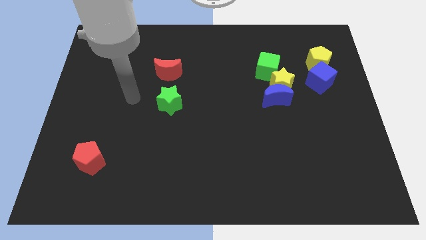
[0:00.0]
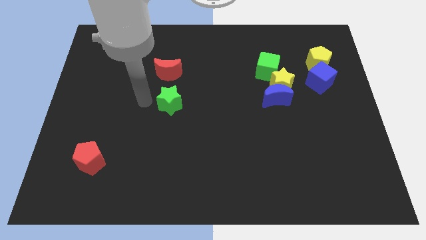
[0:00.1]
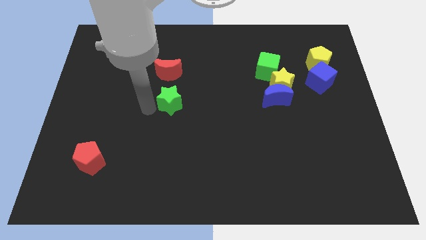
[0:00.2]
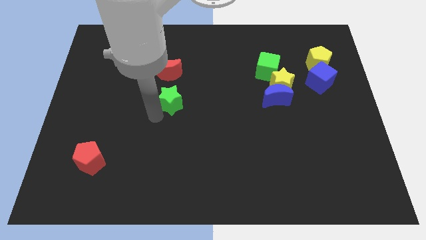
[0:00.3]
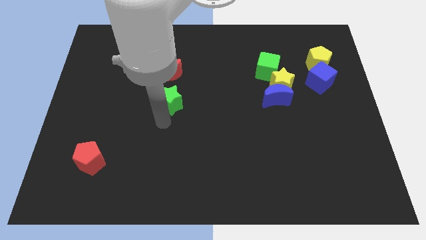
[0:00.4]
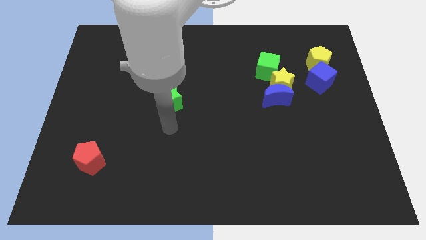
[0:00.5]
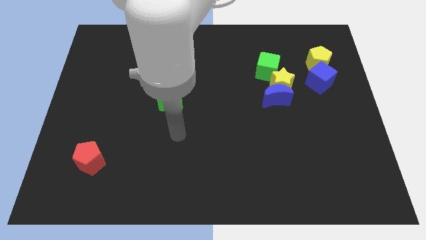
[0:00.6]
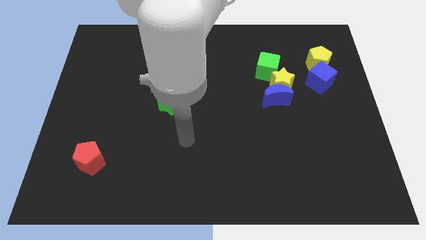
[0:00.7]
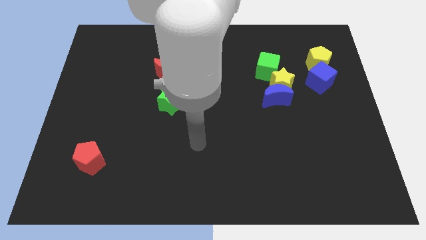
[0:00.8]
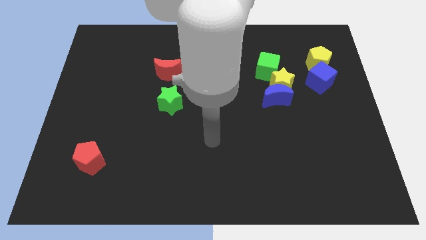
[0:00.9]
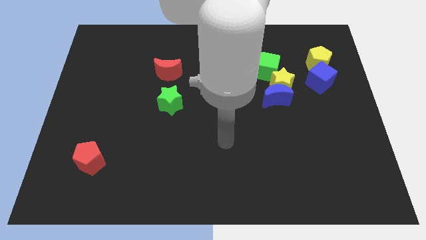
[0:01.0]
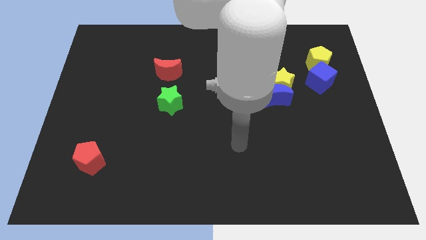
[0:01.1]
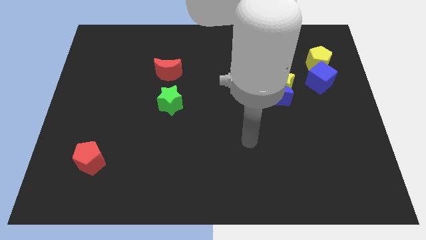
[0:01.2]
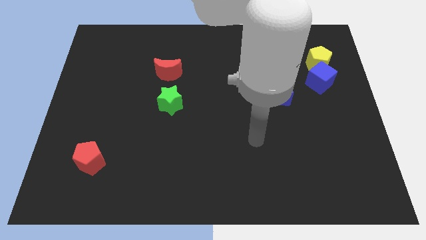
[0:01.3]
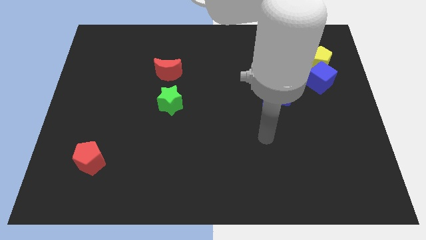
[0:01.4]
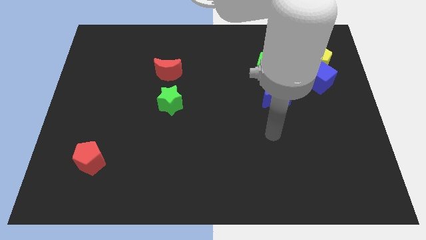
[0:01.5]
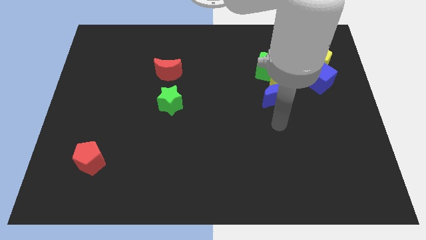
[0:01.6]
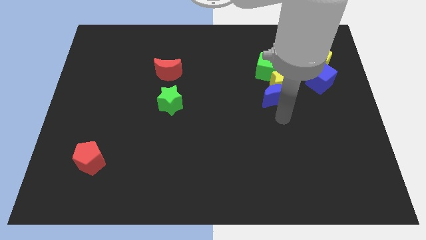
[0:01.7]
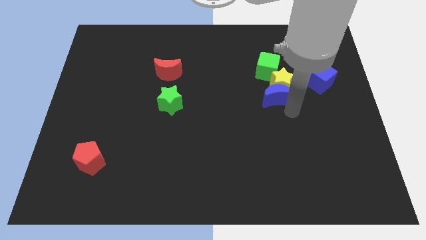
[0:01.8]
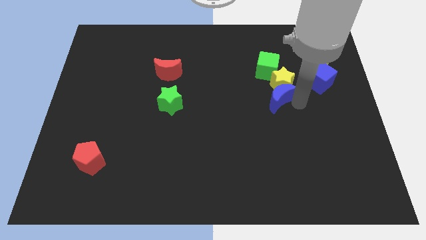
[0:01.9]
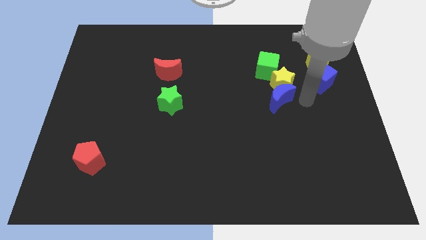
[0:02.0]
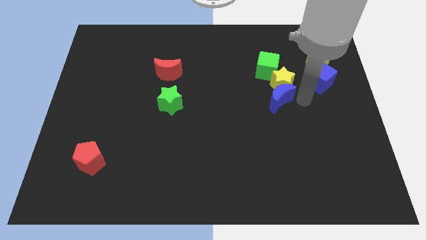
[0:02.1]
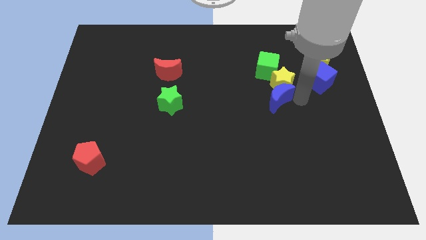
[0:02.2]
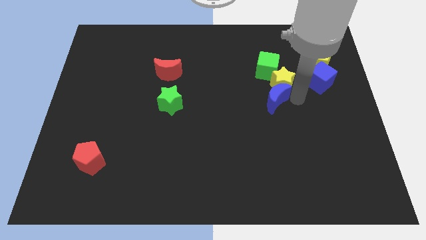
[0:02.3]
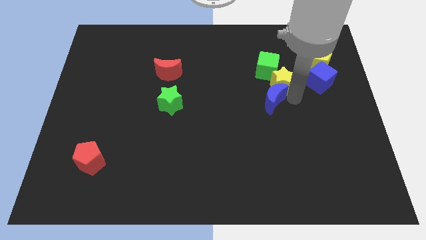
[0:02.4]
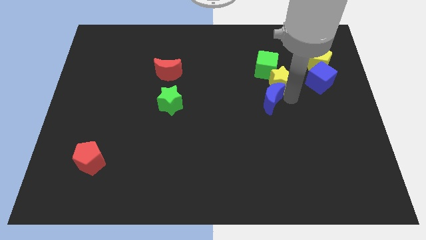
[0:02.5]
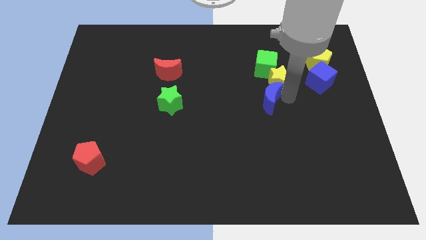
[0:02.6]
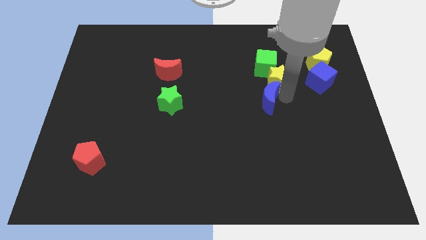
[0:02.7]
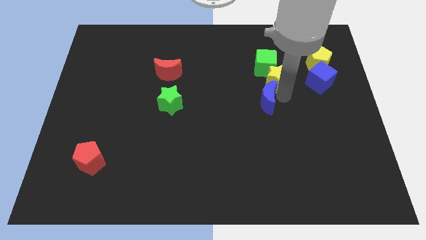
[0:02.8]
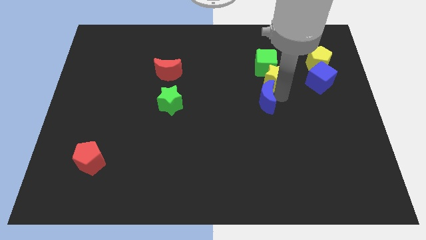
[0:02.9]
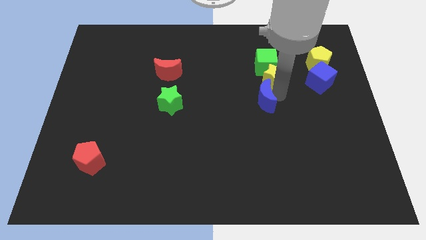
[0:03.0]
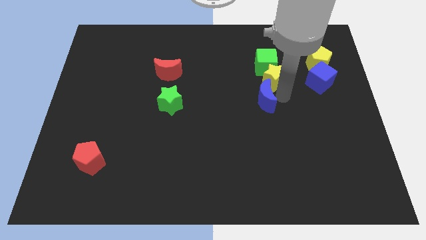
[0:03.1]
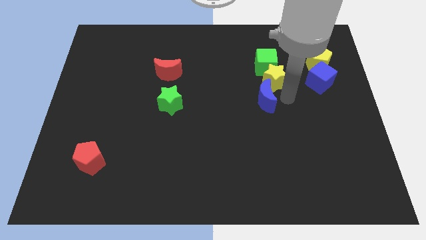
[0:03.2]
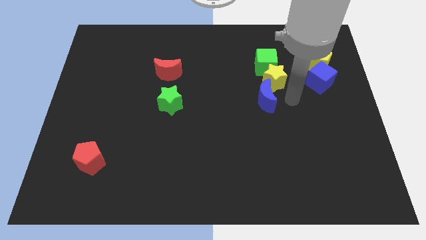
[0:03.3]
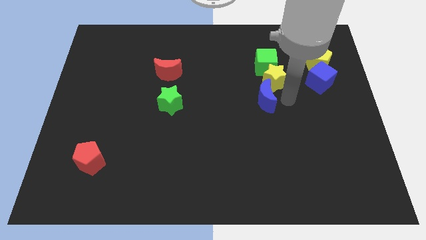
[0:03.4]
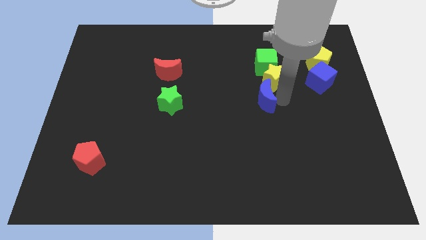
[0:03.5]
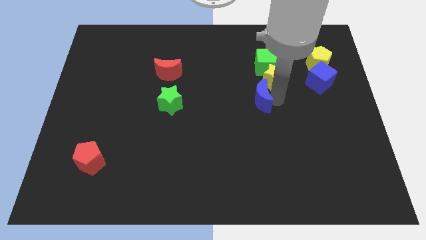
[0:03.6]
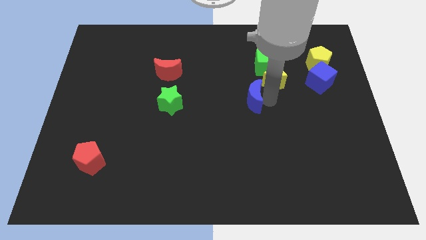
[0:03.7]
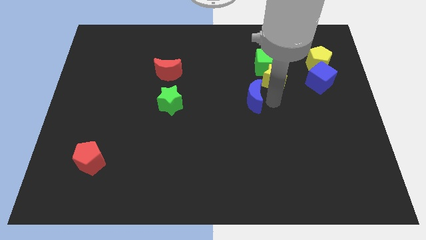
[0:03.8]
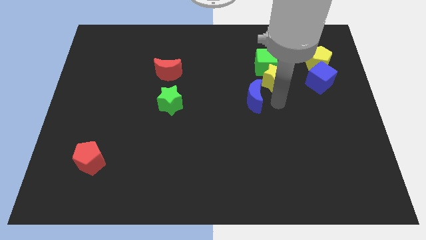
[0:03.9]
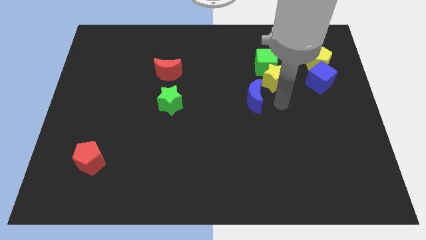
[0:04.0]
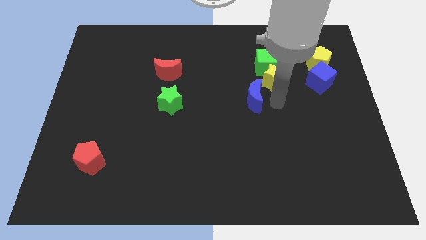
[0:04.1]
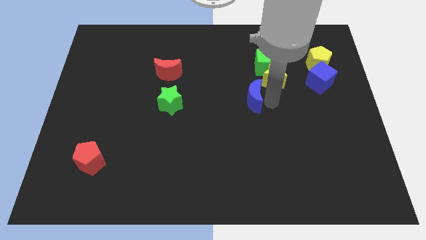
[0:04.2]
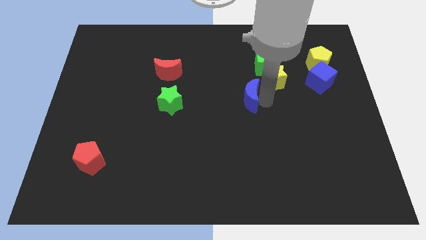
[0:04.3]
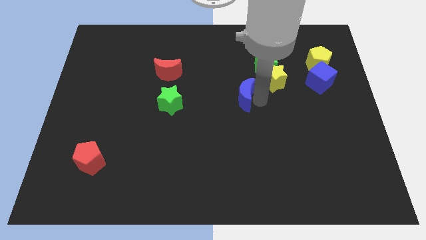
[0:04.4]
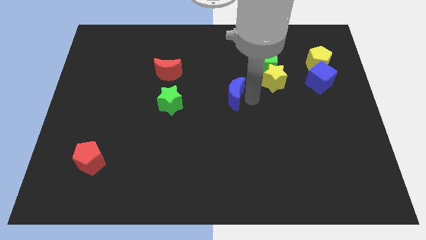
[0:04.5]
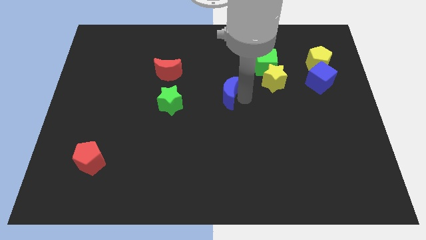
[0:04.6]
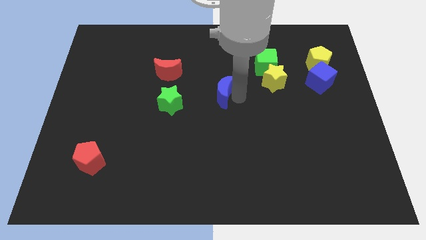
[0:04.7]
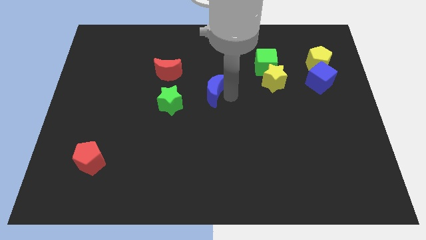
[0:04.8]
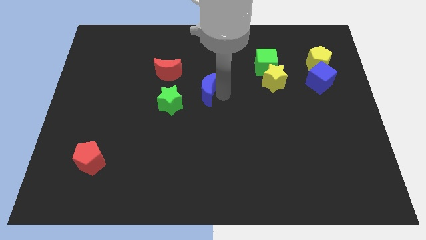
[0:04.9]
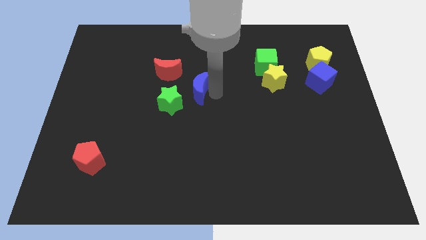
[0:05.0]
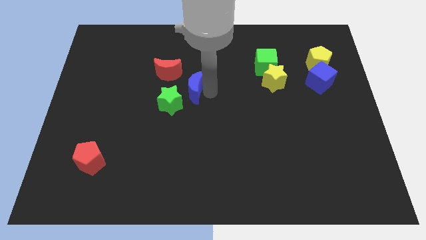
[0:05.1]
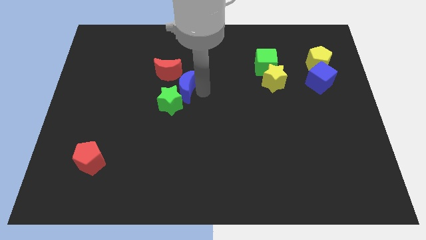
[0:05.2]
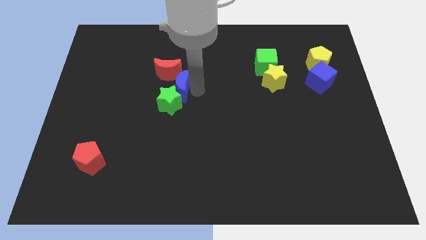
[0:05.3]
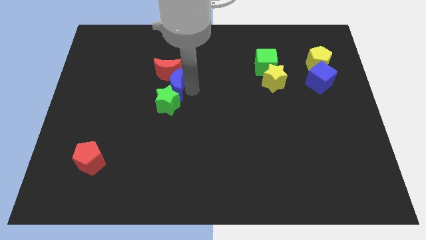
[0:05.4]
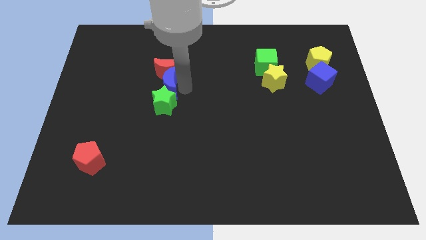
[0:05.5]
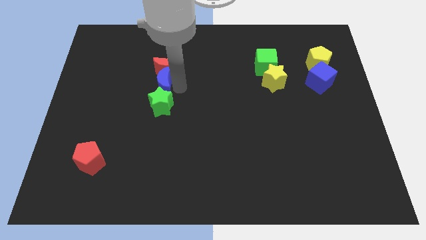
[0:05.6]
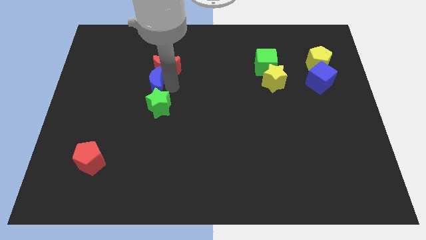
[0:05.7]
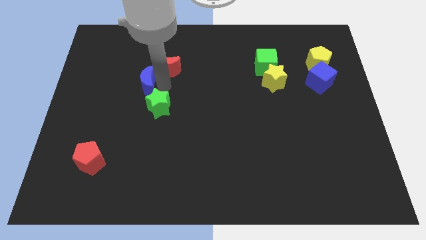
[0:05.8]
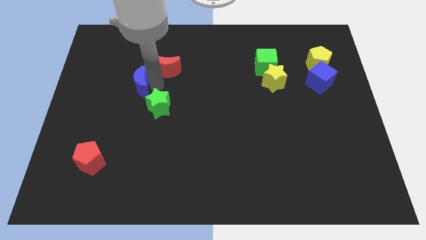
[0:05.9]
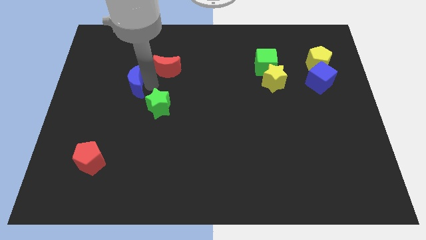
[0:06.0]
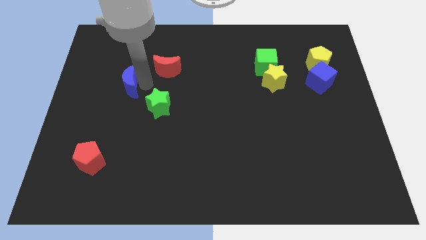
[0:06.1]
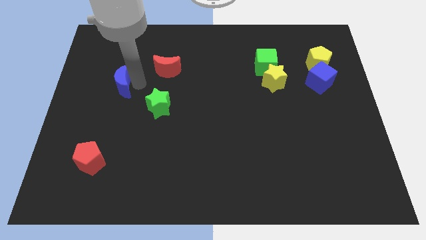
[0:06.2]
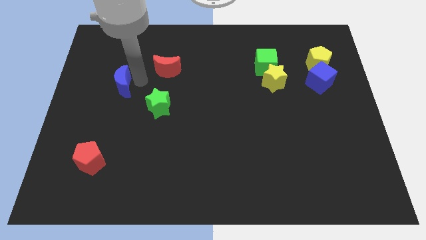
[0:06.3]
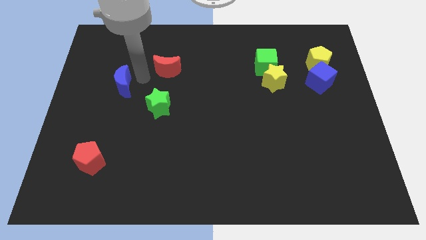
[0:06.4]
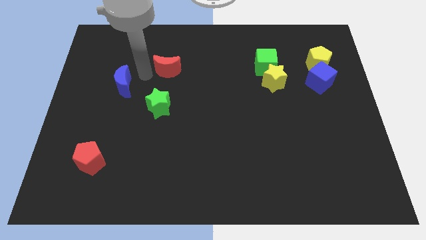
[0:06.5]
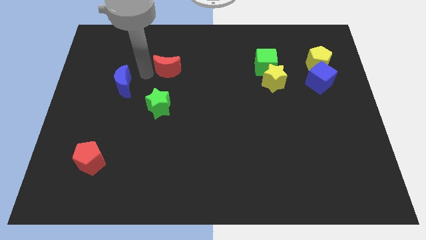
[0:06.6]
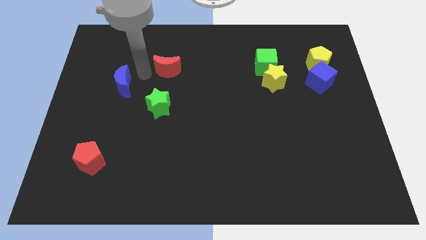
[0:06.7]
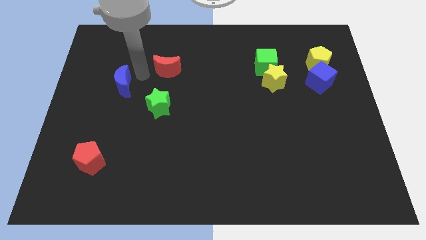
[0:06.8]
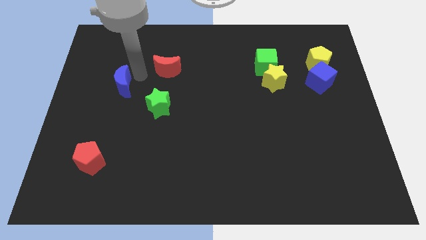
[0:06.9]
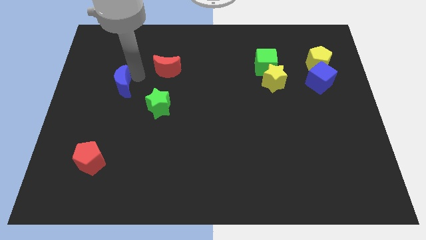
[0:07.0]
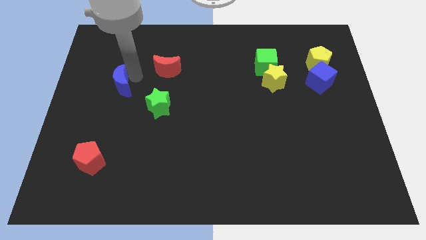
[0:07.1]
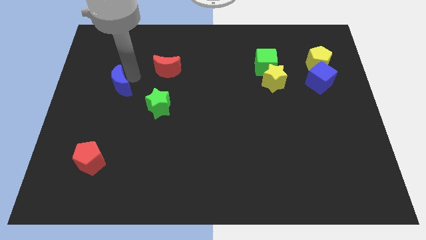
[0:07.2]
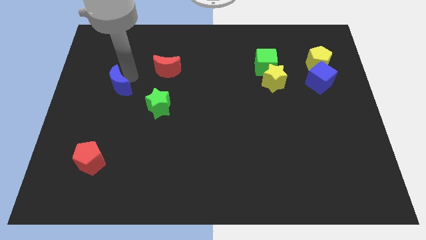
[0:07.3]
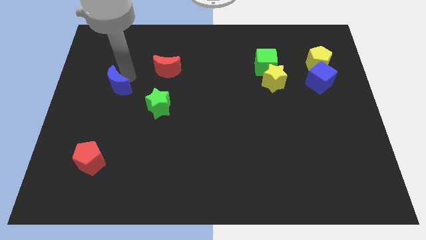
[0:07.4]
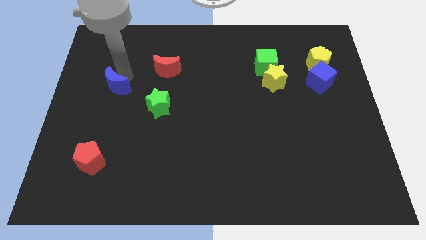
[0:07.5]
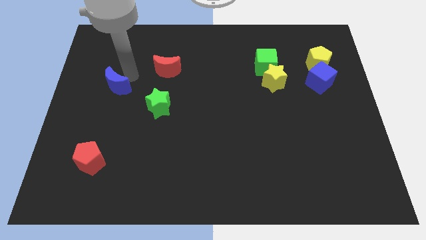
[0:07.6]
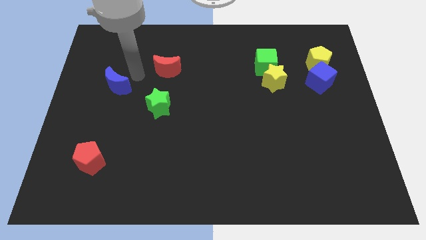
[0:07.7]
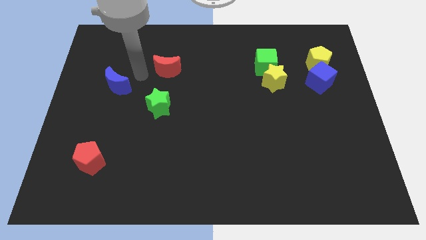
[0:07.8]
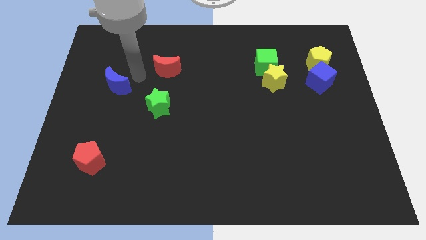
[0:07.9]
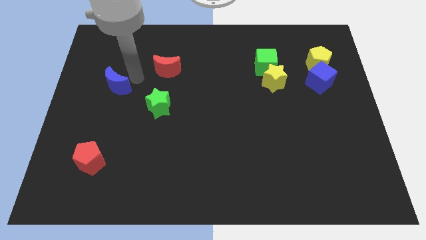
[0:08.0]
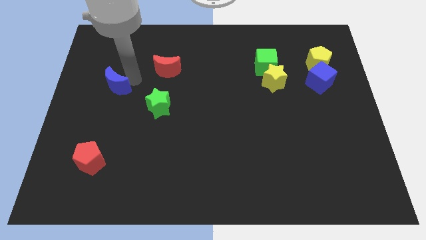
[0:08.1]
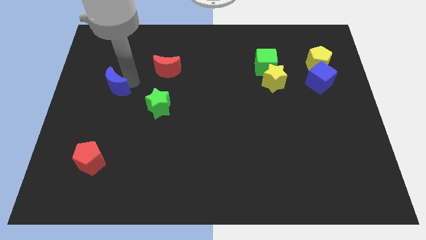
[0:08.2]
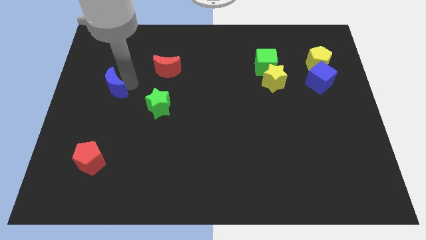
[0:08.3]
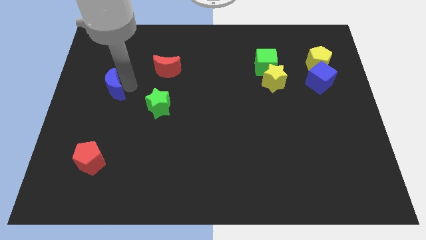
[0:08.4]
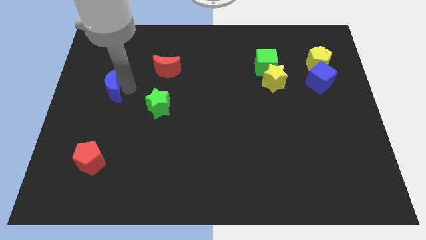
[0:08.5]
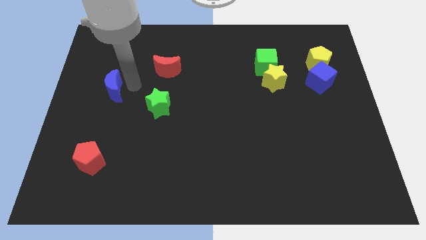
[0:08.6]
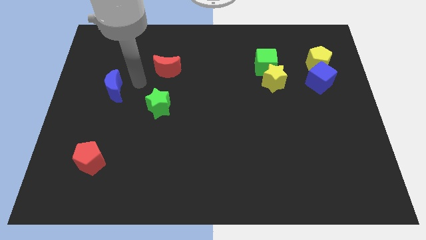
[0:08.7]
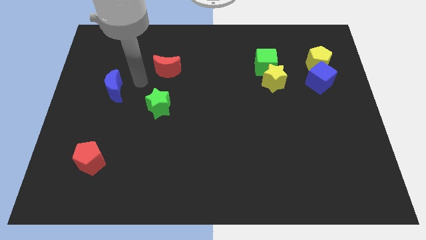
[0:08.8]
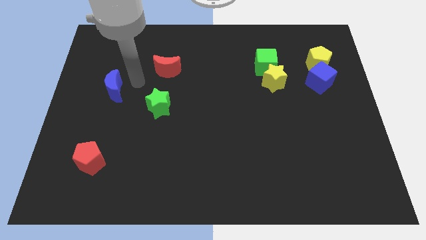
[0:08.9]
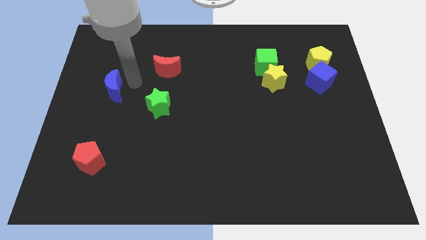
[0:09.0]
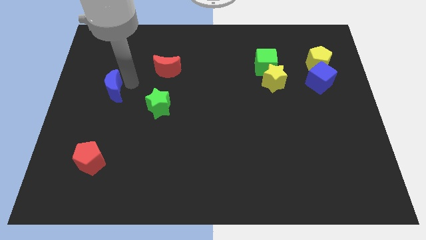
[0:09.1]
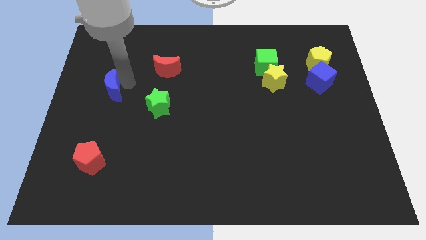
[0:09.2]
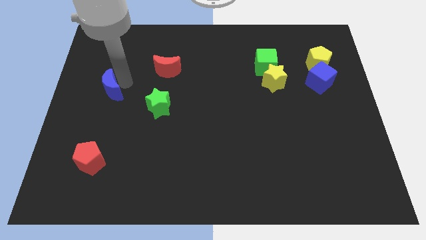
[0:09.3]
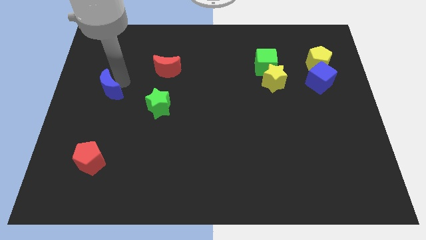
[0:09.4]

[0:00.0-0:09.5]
slide the blue moon to the center left
